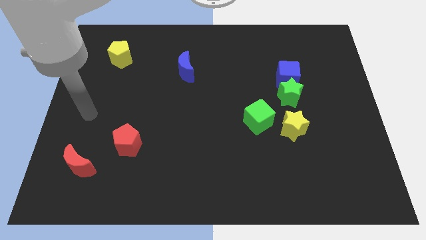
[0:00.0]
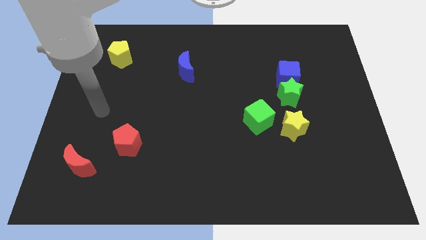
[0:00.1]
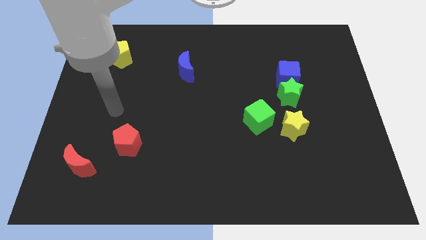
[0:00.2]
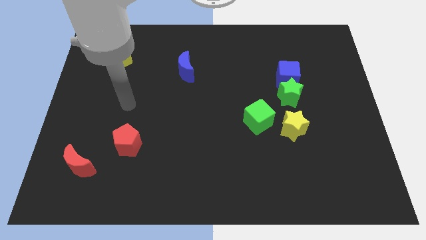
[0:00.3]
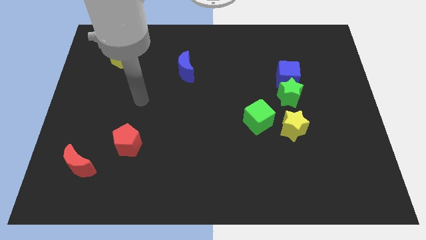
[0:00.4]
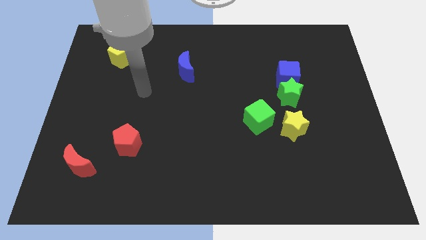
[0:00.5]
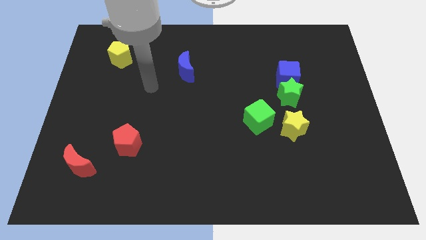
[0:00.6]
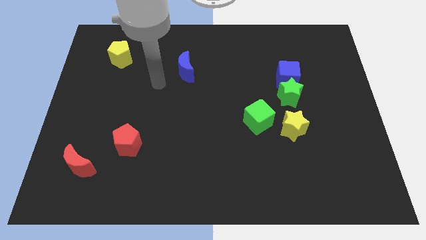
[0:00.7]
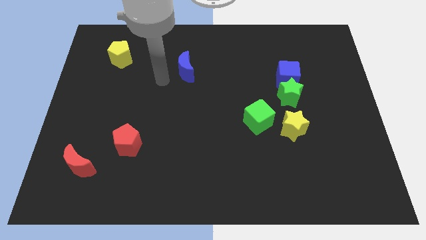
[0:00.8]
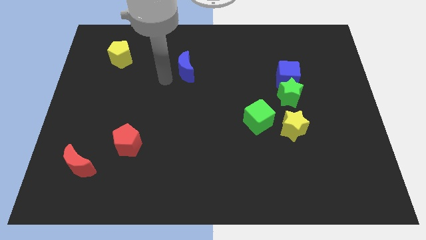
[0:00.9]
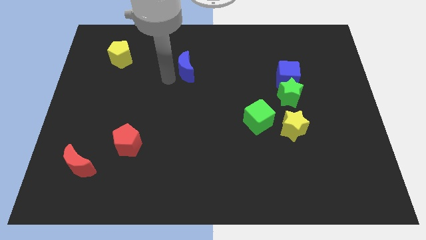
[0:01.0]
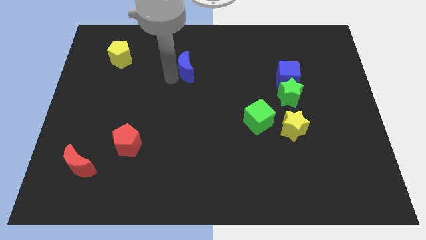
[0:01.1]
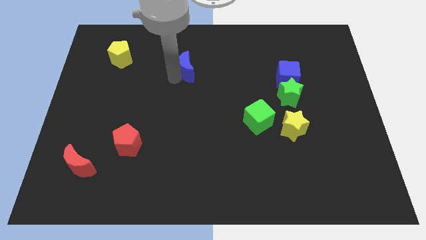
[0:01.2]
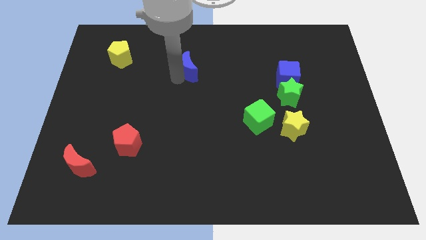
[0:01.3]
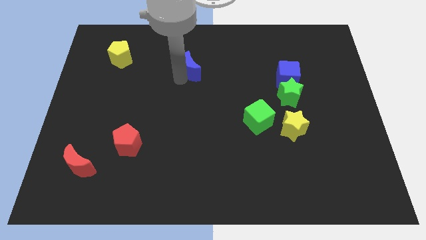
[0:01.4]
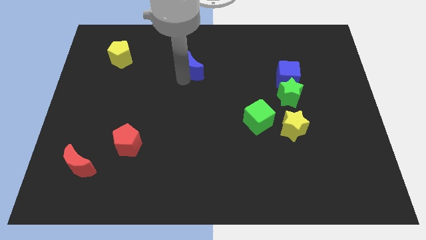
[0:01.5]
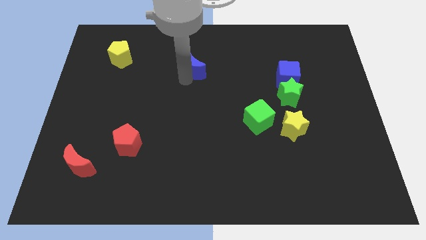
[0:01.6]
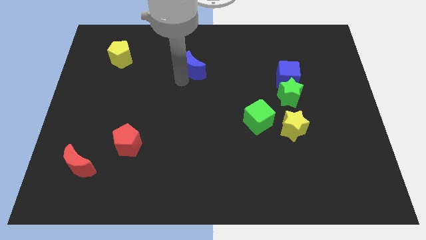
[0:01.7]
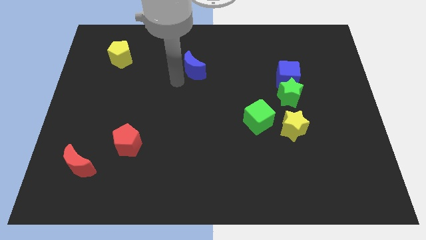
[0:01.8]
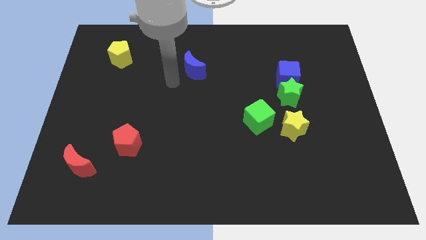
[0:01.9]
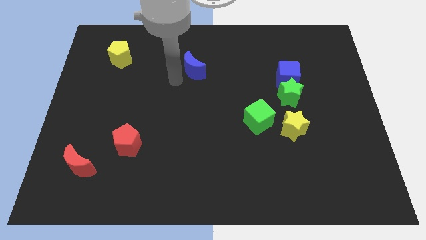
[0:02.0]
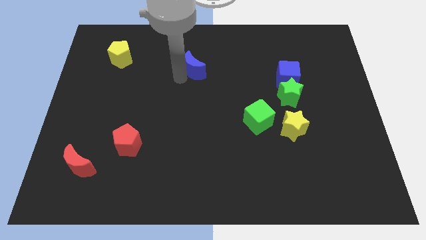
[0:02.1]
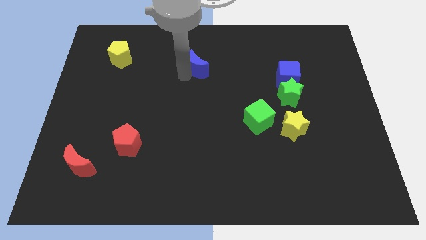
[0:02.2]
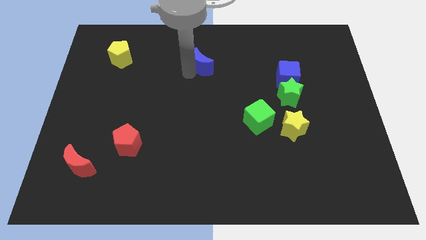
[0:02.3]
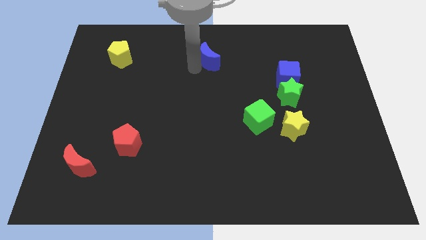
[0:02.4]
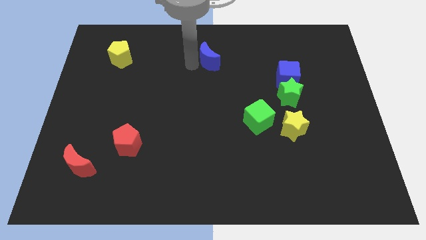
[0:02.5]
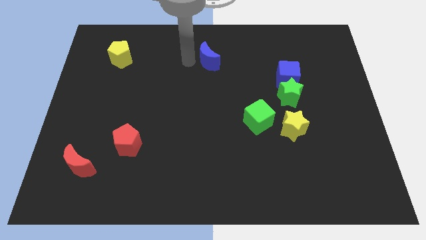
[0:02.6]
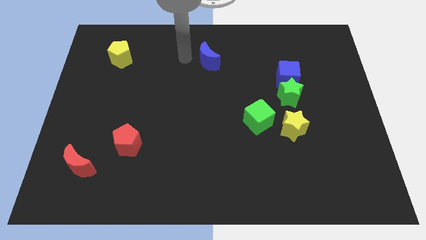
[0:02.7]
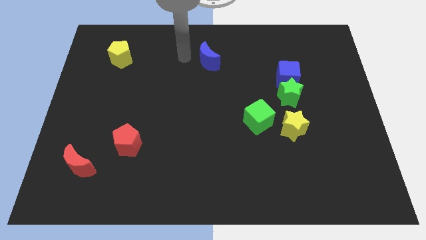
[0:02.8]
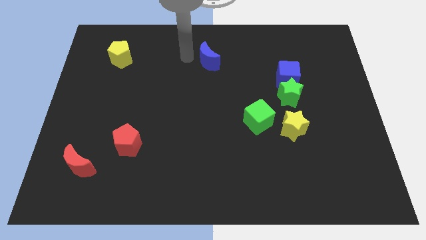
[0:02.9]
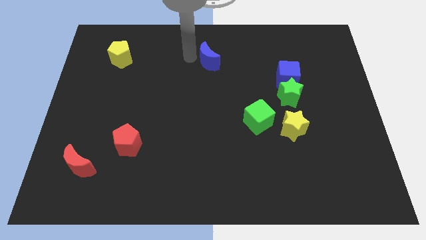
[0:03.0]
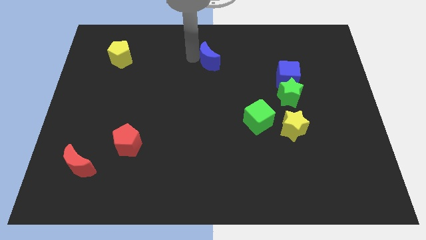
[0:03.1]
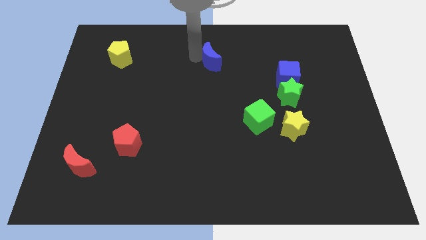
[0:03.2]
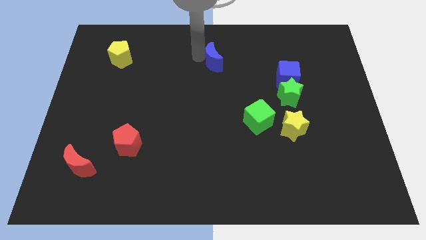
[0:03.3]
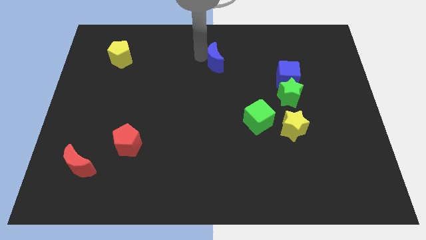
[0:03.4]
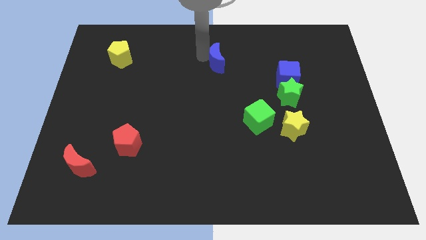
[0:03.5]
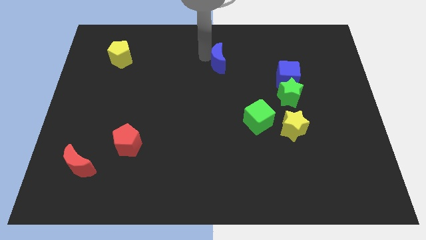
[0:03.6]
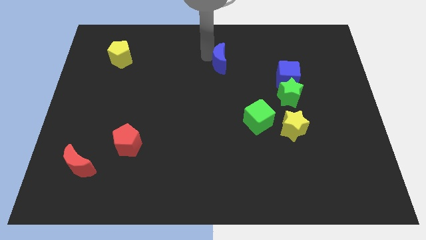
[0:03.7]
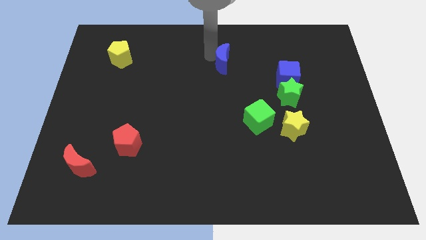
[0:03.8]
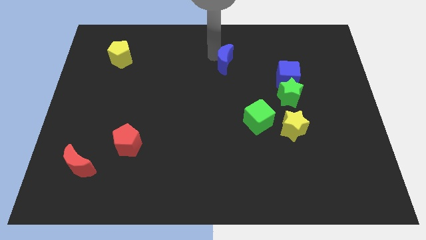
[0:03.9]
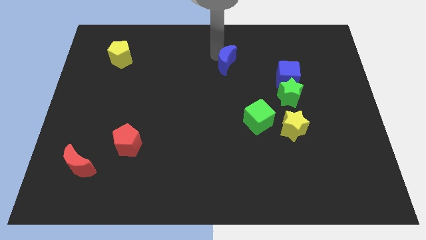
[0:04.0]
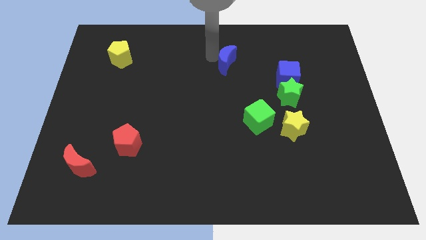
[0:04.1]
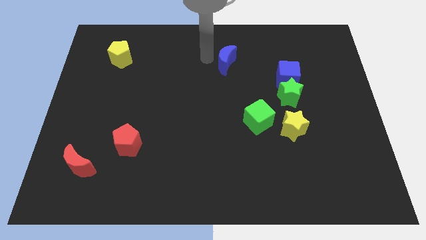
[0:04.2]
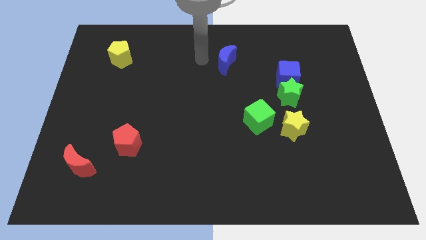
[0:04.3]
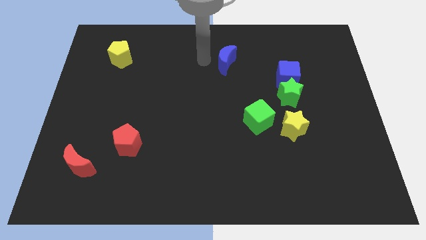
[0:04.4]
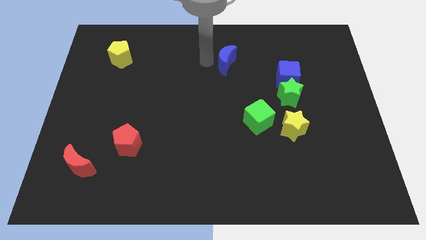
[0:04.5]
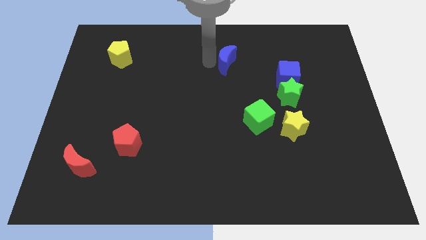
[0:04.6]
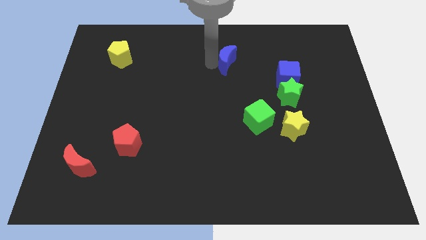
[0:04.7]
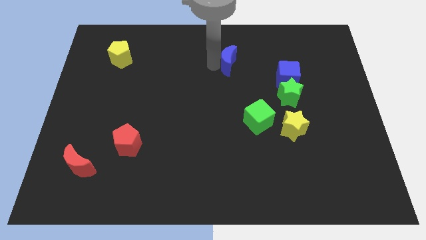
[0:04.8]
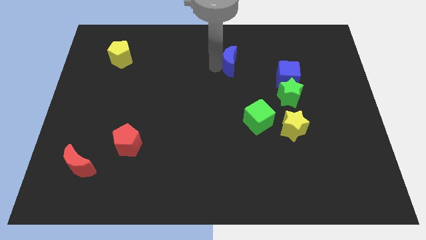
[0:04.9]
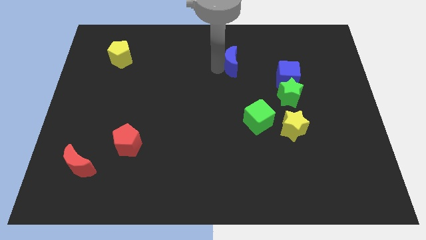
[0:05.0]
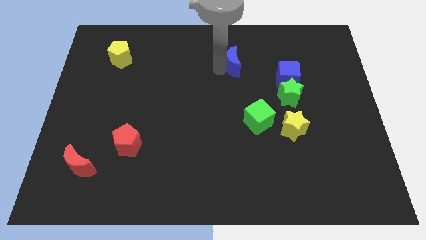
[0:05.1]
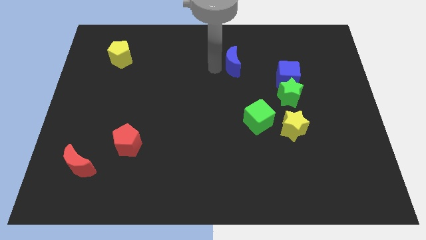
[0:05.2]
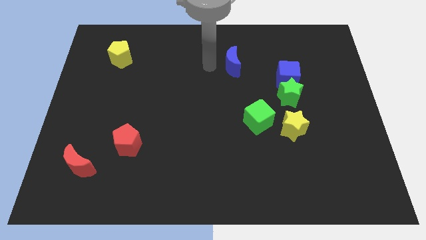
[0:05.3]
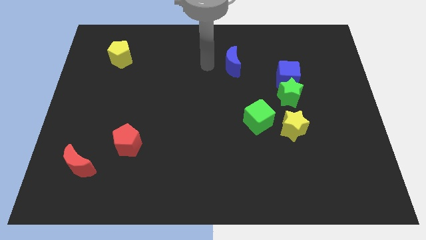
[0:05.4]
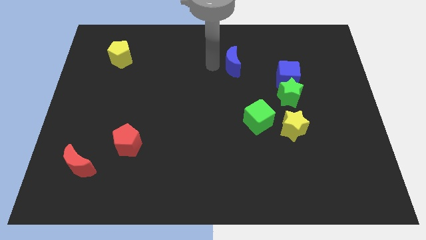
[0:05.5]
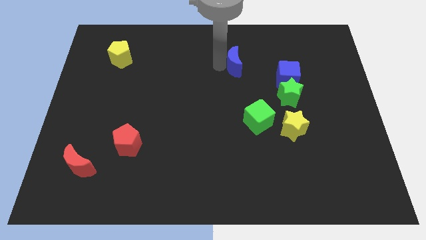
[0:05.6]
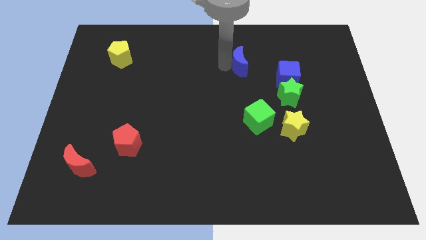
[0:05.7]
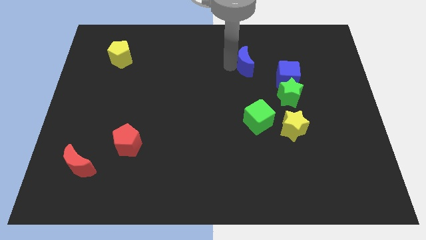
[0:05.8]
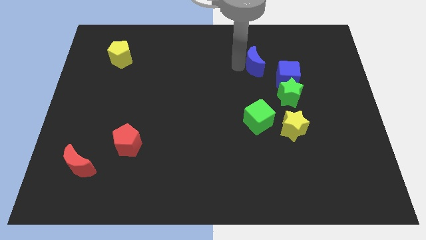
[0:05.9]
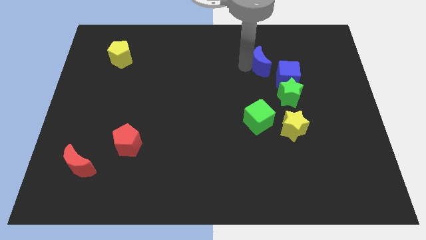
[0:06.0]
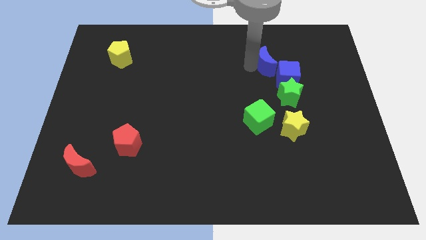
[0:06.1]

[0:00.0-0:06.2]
move the blue moon to the right

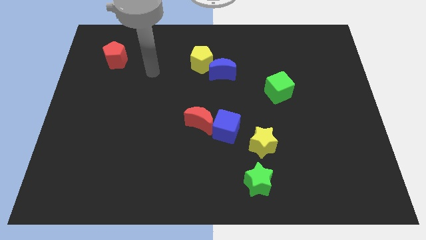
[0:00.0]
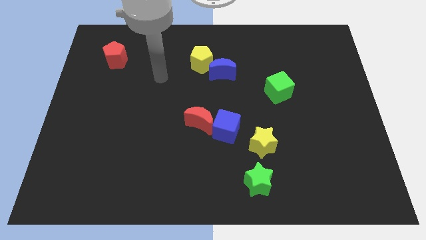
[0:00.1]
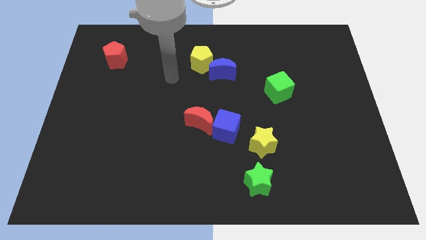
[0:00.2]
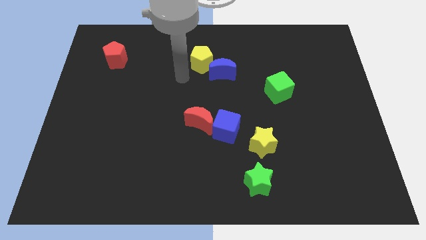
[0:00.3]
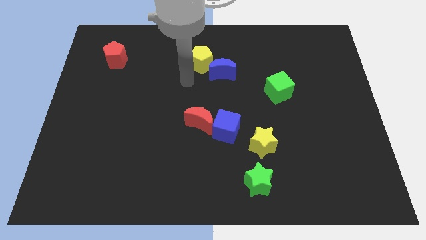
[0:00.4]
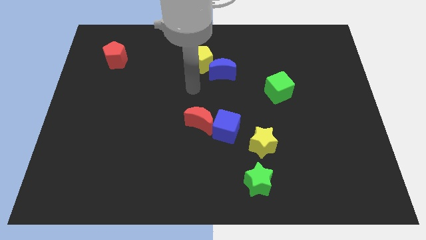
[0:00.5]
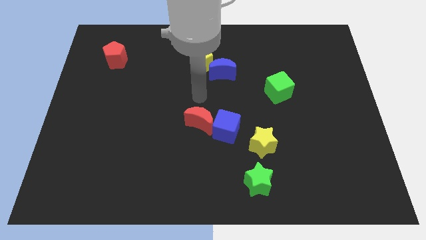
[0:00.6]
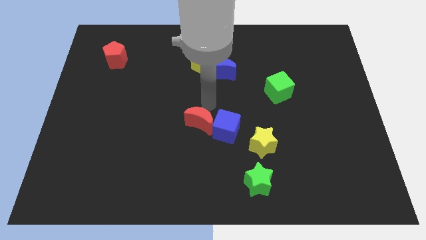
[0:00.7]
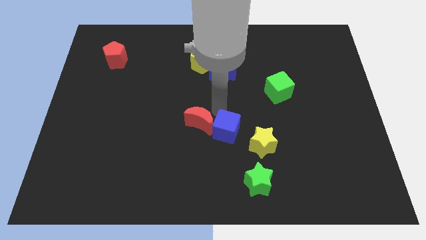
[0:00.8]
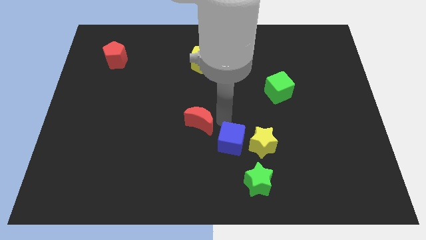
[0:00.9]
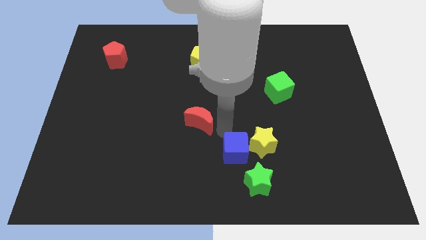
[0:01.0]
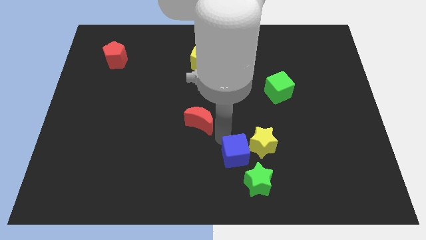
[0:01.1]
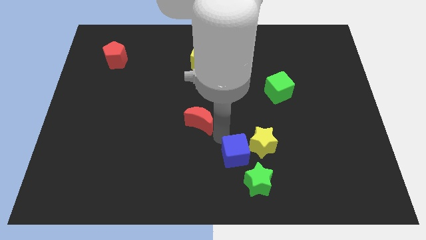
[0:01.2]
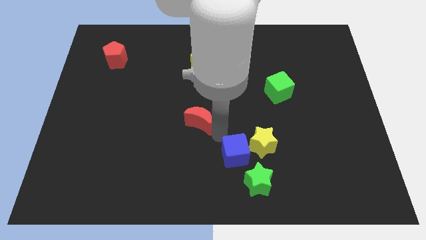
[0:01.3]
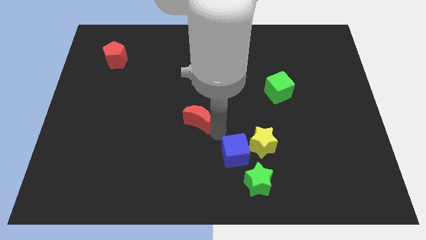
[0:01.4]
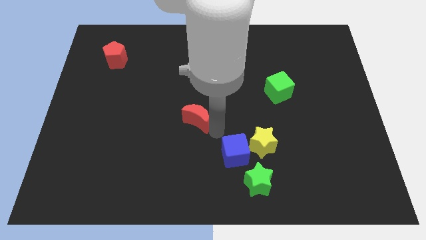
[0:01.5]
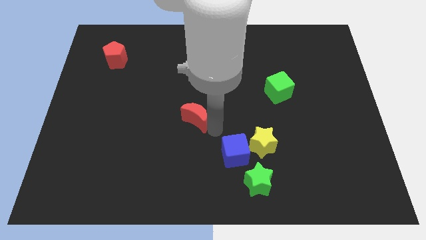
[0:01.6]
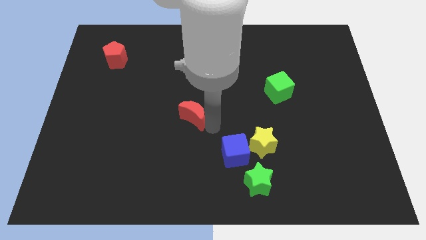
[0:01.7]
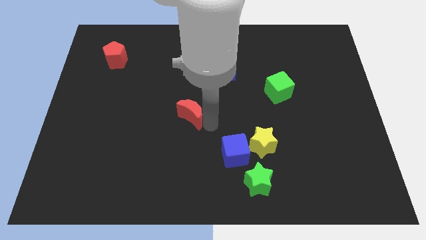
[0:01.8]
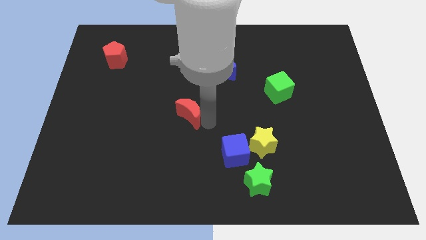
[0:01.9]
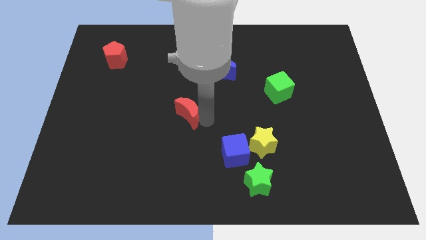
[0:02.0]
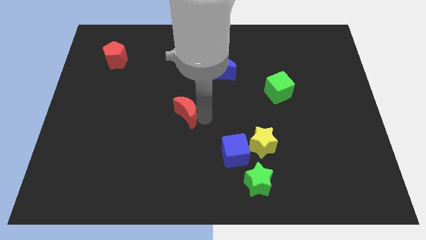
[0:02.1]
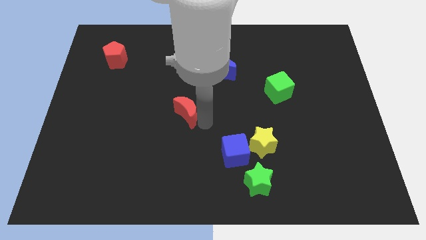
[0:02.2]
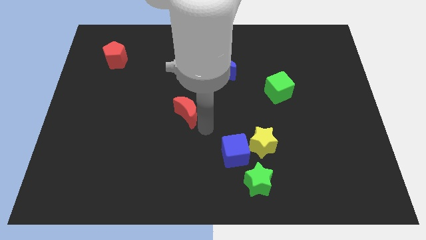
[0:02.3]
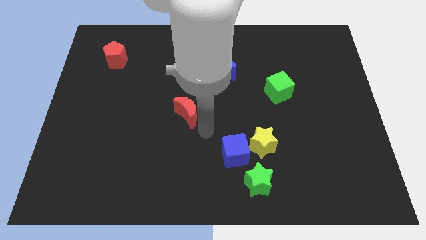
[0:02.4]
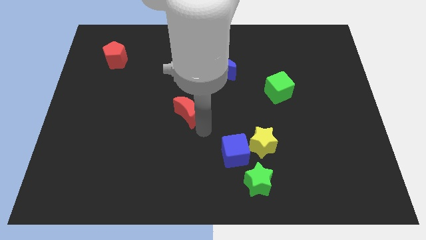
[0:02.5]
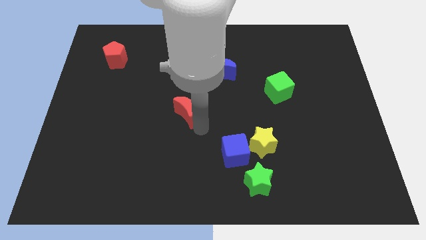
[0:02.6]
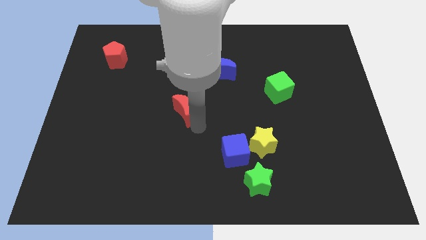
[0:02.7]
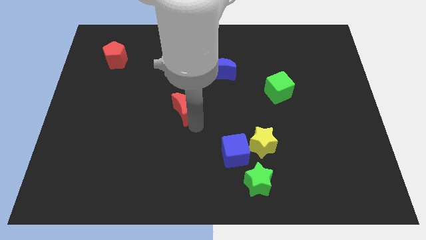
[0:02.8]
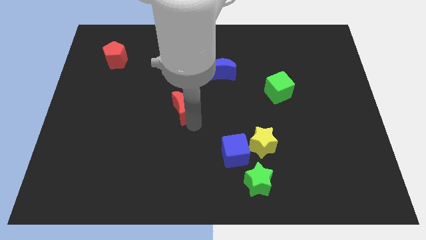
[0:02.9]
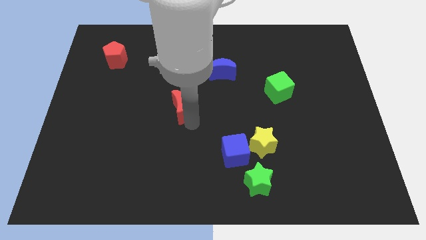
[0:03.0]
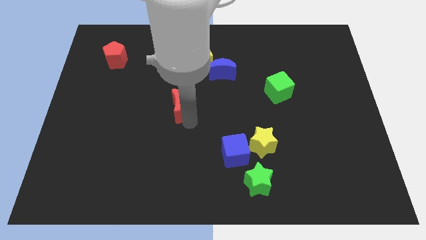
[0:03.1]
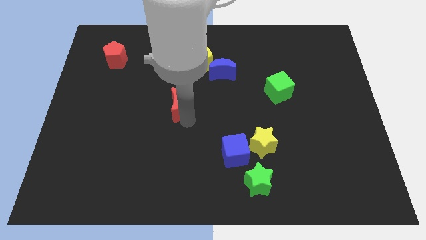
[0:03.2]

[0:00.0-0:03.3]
move the red moon diagonally up and to the left a little bit
